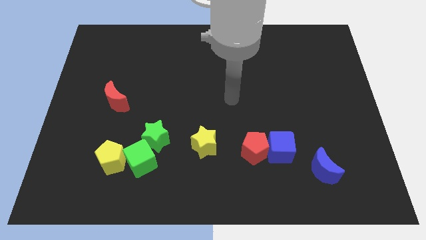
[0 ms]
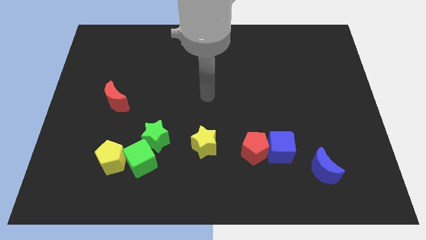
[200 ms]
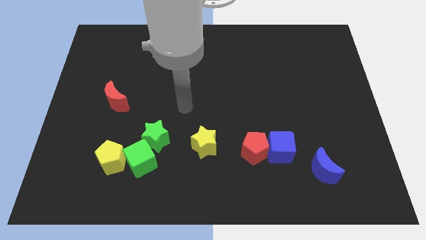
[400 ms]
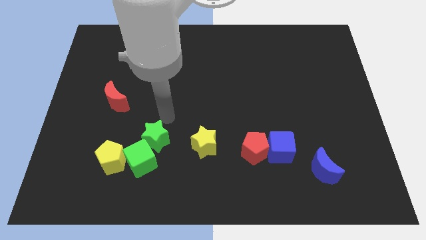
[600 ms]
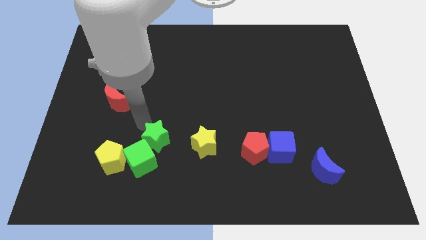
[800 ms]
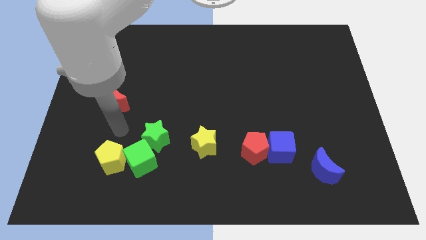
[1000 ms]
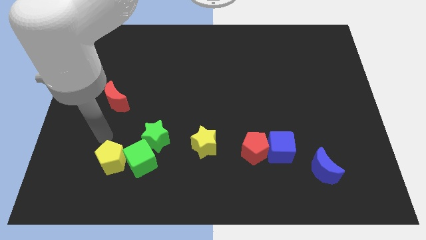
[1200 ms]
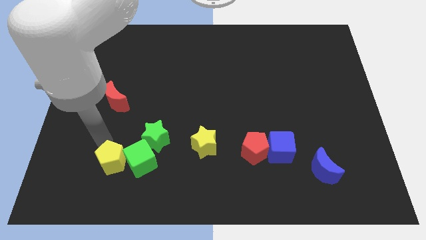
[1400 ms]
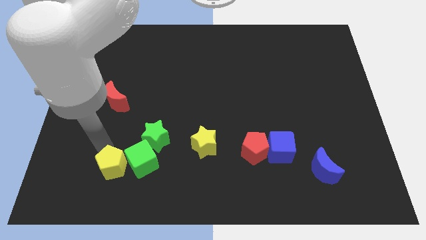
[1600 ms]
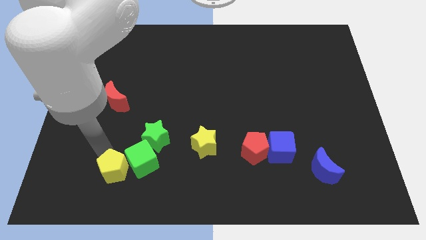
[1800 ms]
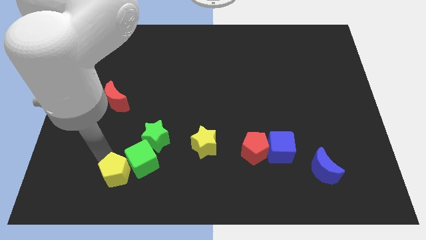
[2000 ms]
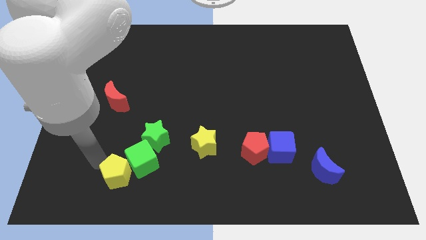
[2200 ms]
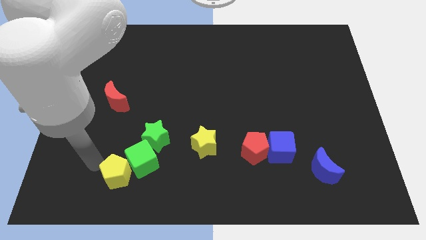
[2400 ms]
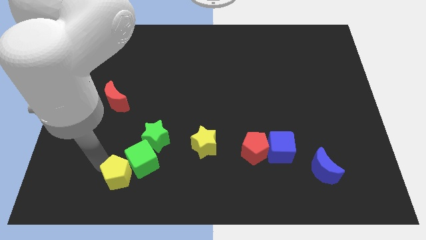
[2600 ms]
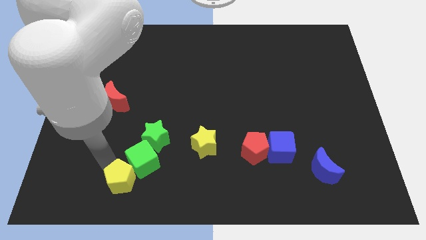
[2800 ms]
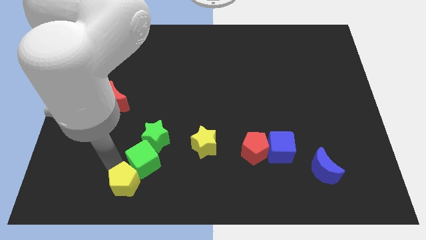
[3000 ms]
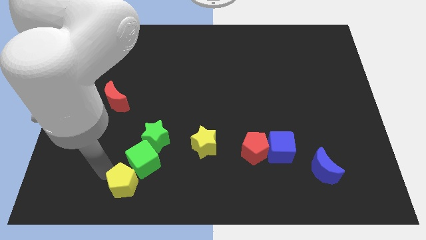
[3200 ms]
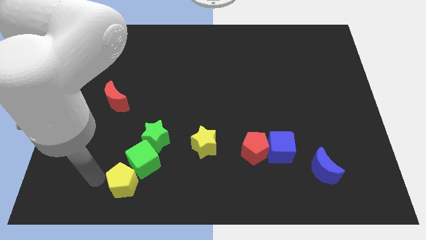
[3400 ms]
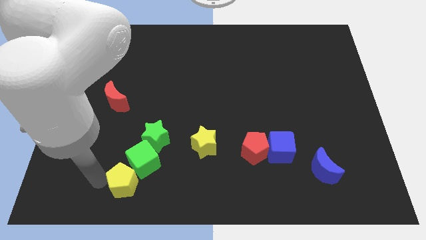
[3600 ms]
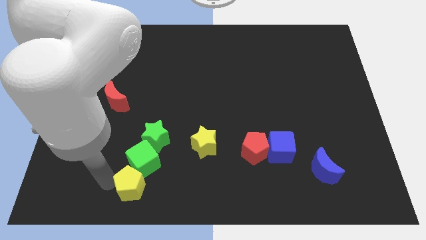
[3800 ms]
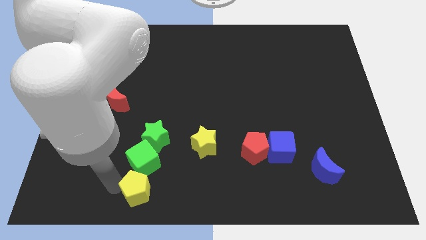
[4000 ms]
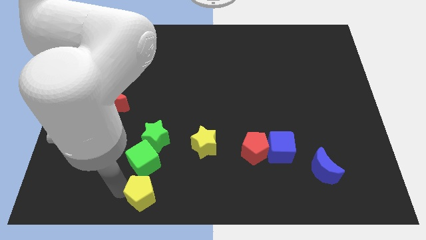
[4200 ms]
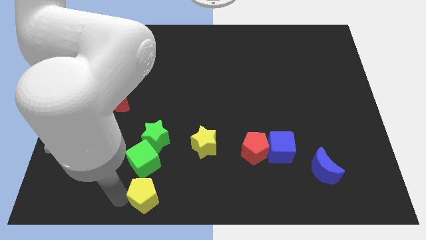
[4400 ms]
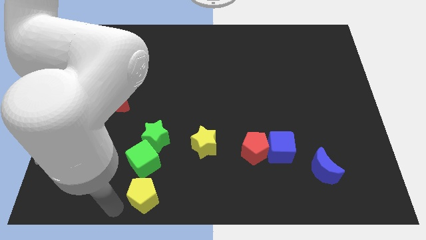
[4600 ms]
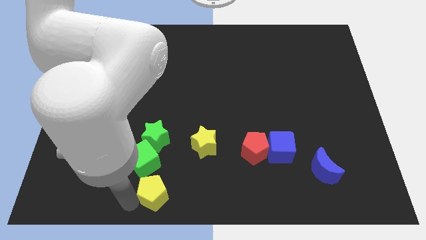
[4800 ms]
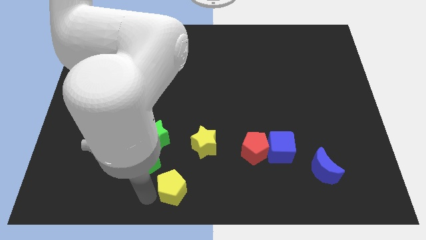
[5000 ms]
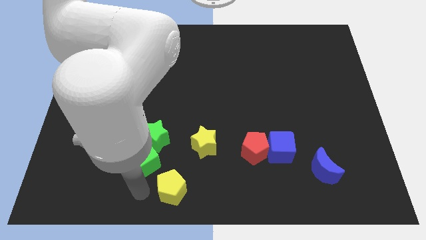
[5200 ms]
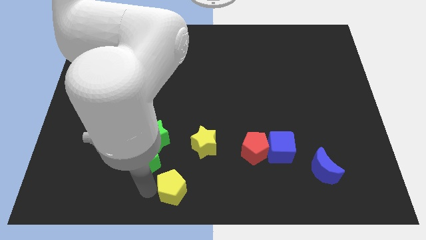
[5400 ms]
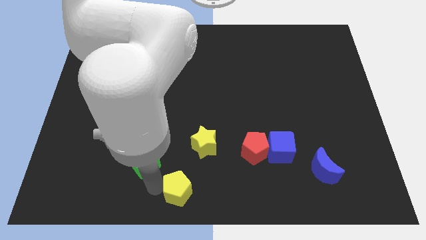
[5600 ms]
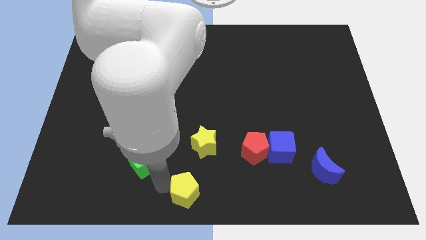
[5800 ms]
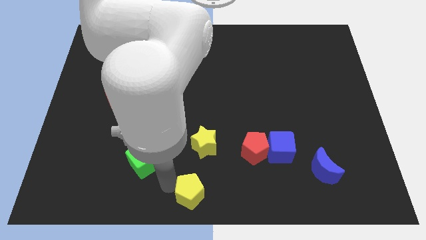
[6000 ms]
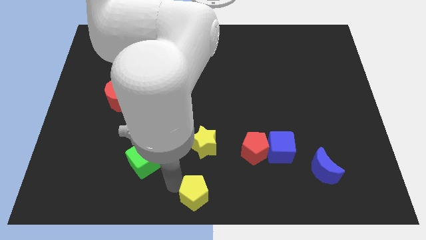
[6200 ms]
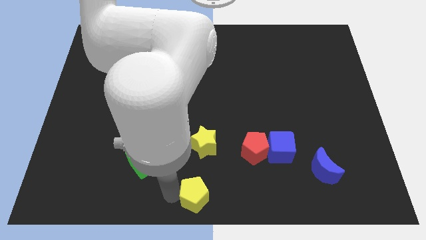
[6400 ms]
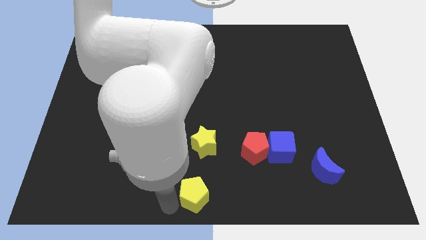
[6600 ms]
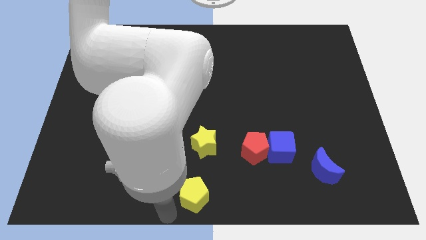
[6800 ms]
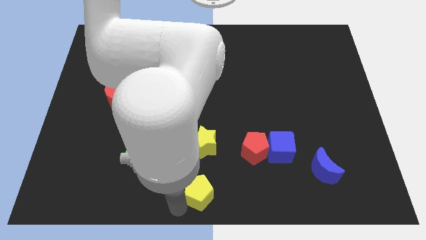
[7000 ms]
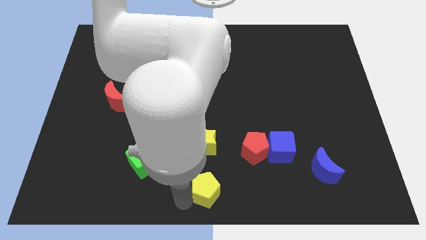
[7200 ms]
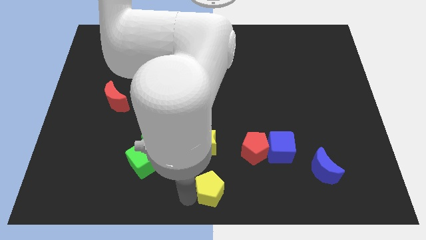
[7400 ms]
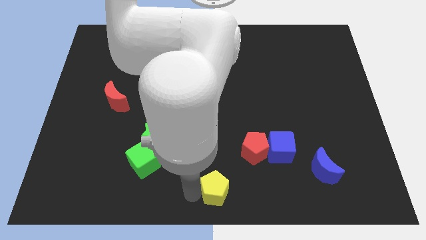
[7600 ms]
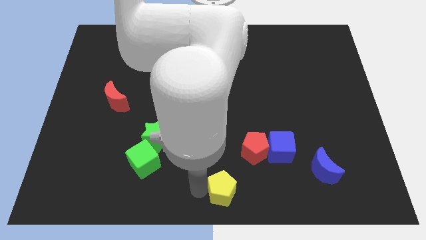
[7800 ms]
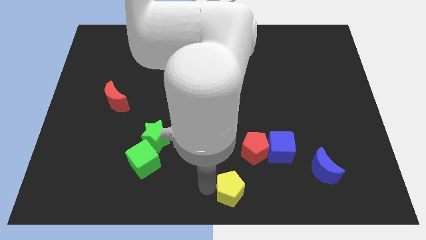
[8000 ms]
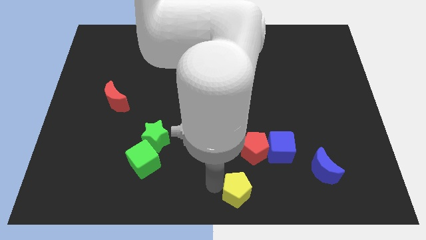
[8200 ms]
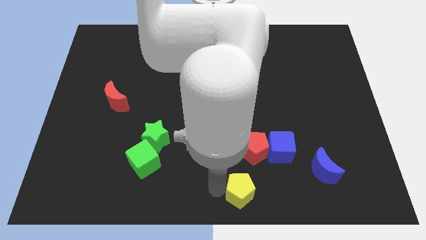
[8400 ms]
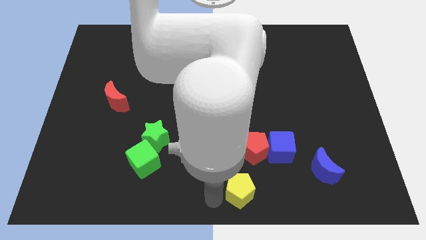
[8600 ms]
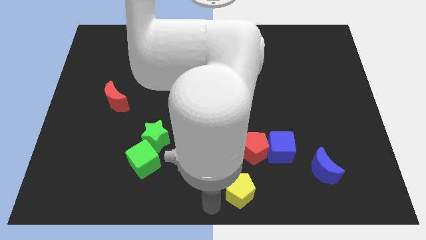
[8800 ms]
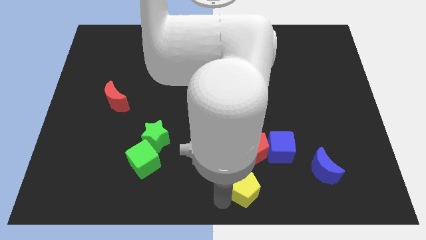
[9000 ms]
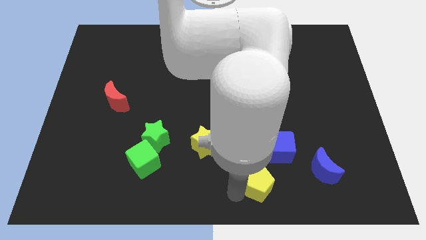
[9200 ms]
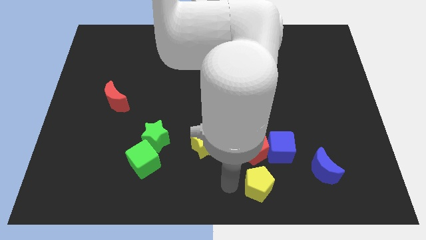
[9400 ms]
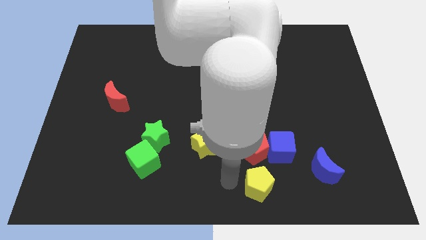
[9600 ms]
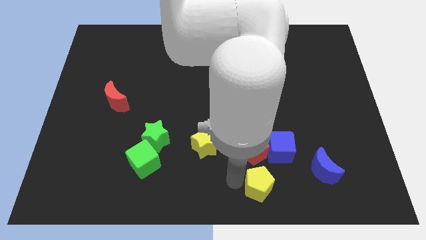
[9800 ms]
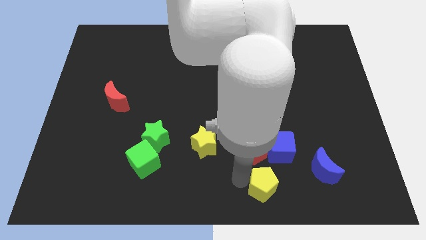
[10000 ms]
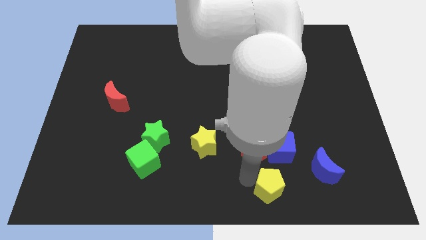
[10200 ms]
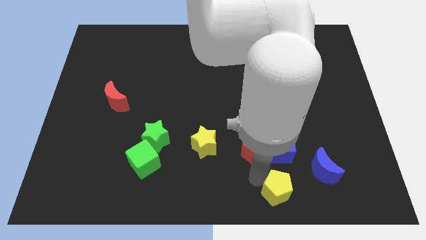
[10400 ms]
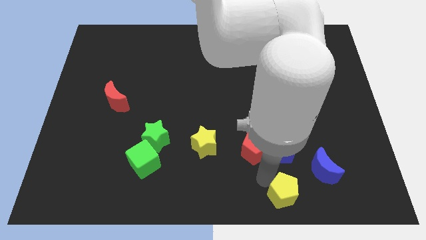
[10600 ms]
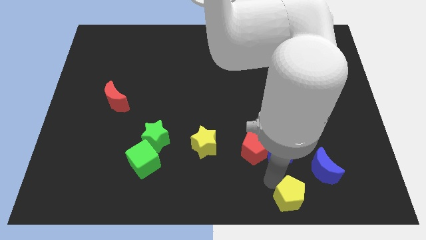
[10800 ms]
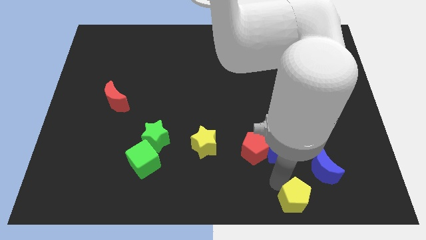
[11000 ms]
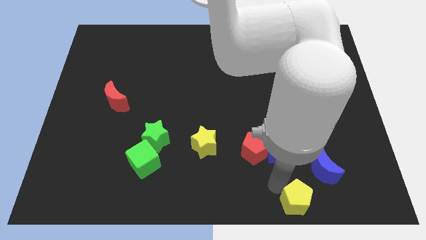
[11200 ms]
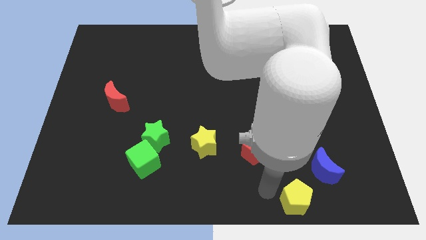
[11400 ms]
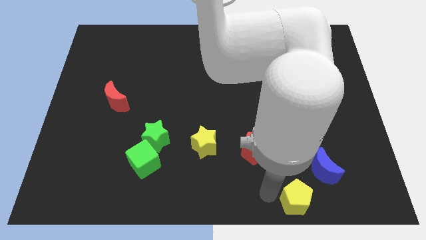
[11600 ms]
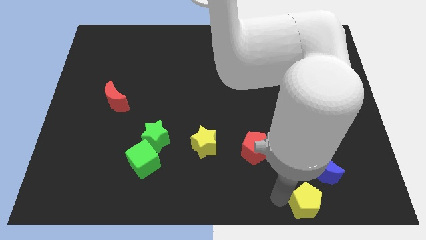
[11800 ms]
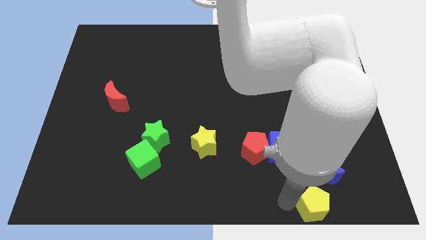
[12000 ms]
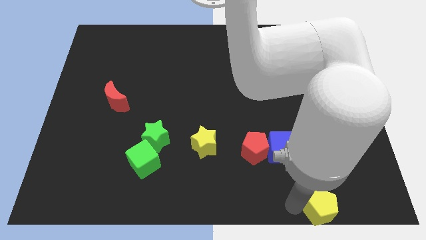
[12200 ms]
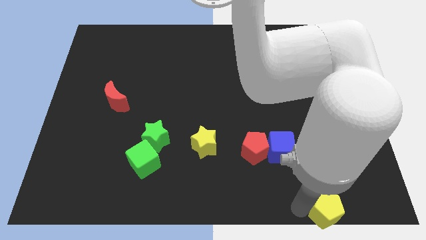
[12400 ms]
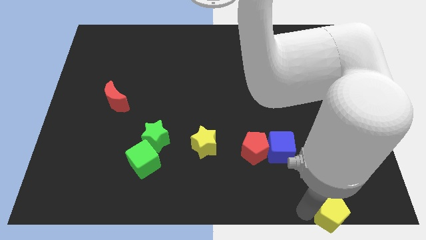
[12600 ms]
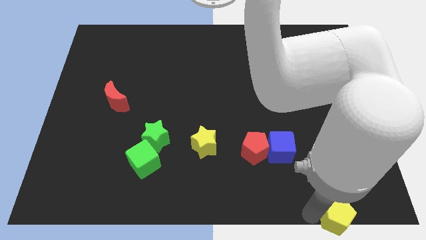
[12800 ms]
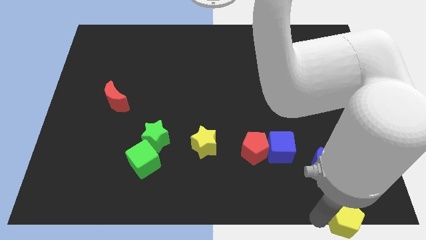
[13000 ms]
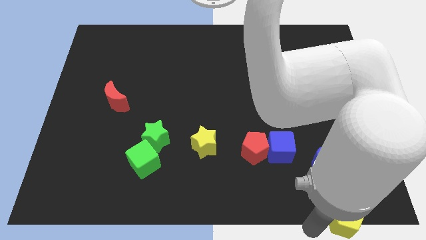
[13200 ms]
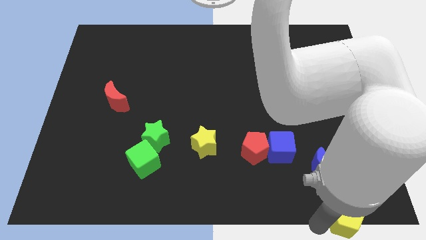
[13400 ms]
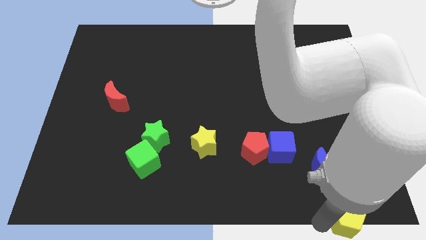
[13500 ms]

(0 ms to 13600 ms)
push the yellow pentagon to the bottom right

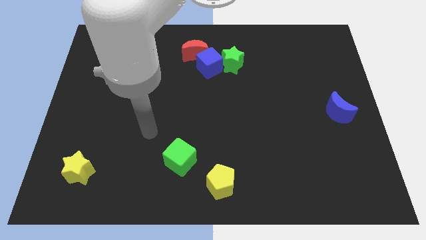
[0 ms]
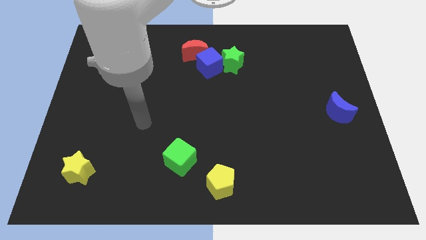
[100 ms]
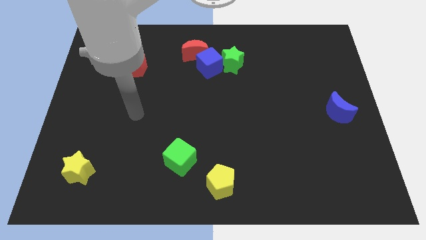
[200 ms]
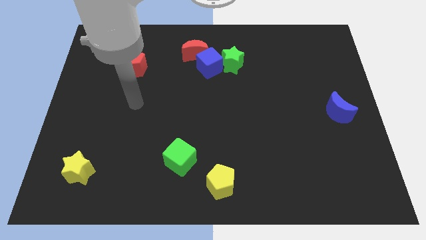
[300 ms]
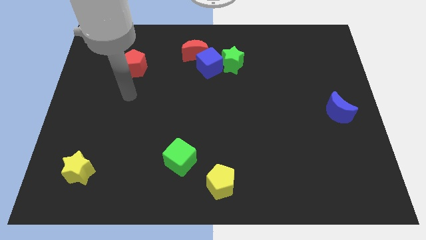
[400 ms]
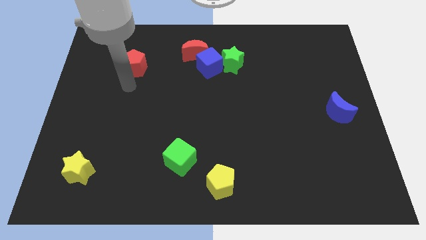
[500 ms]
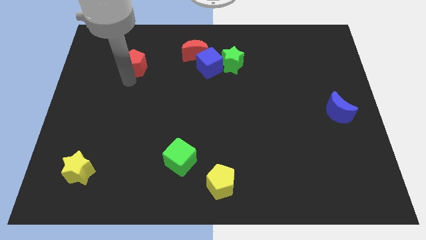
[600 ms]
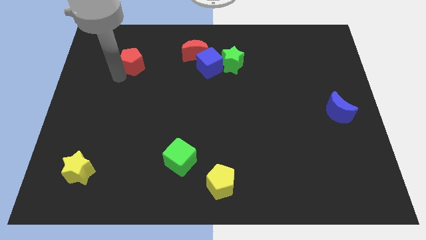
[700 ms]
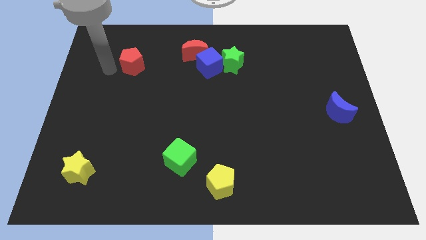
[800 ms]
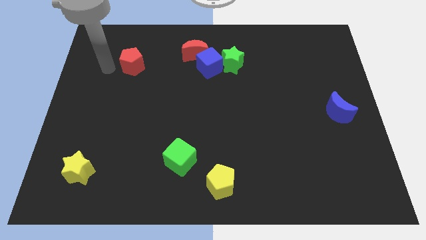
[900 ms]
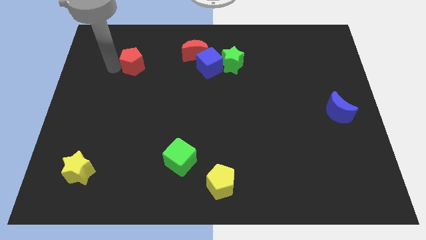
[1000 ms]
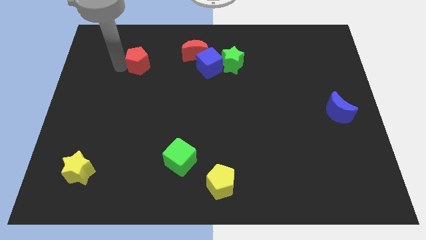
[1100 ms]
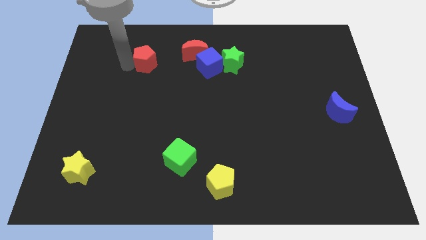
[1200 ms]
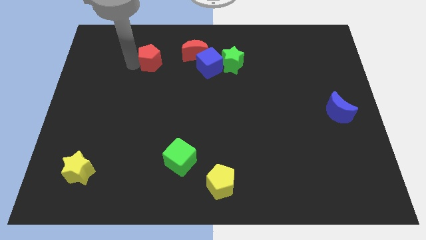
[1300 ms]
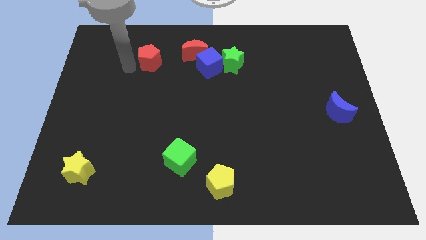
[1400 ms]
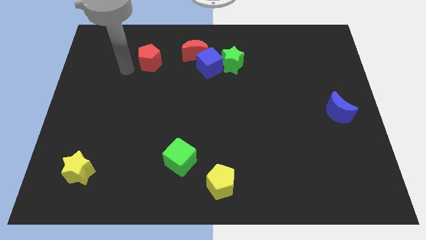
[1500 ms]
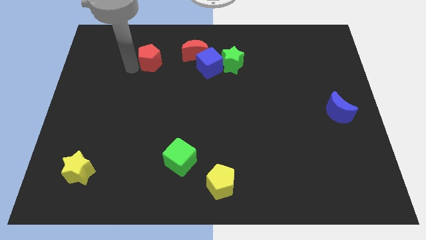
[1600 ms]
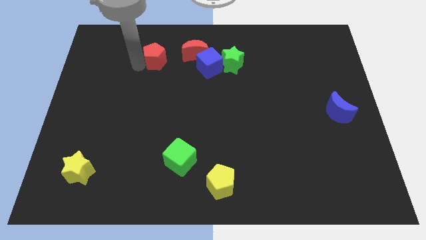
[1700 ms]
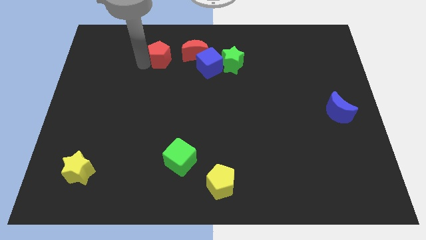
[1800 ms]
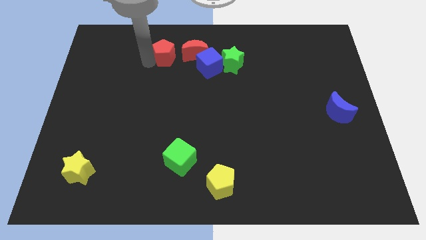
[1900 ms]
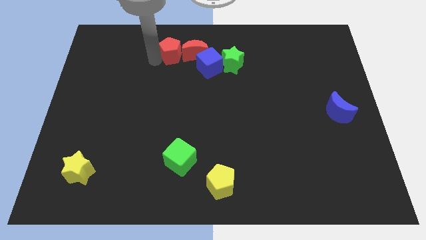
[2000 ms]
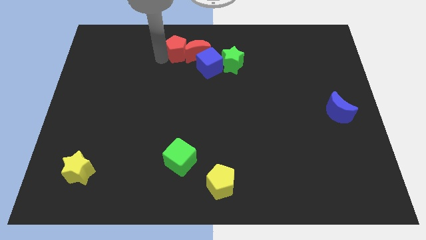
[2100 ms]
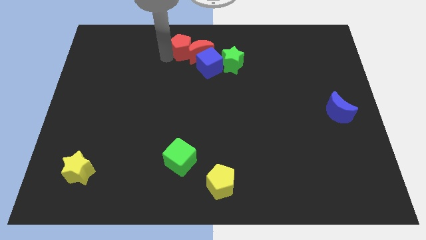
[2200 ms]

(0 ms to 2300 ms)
move the red pentagon to the top side
